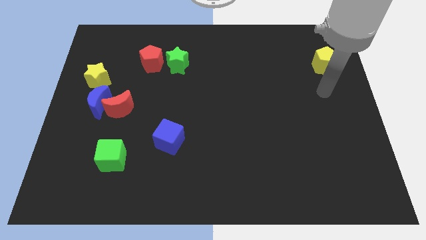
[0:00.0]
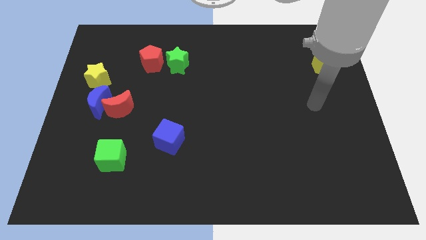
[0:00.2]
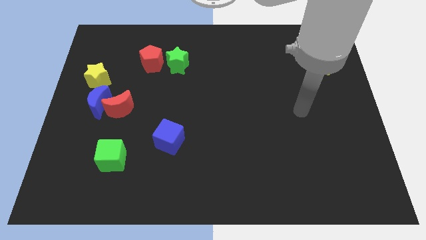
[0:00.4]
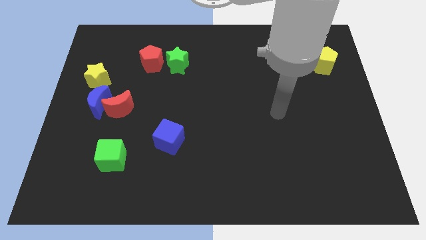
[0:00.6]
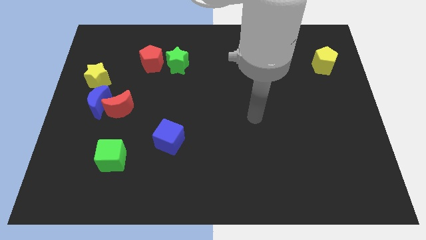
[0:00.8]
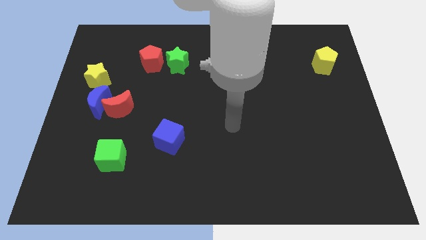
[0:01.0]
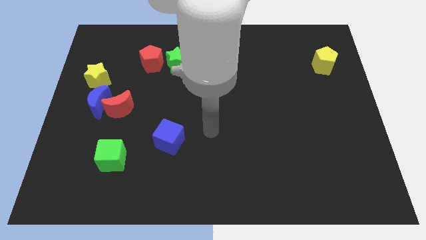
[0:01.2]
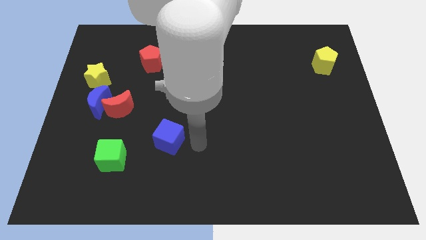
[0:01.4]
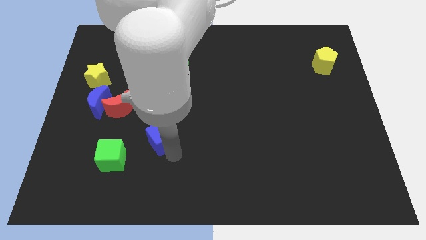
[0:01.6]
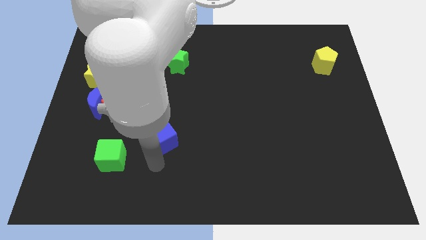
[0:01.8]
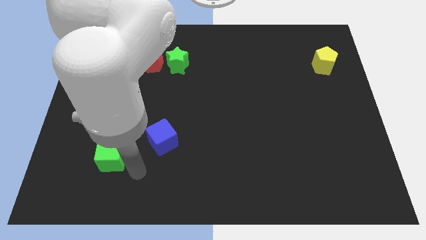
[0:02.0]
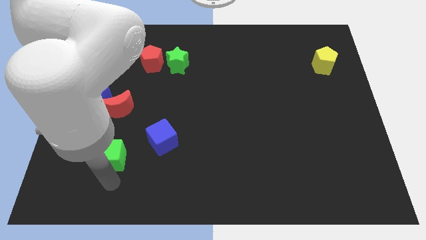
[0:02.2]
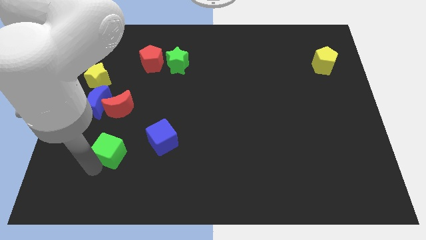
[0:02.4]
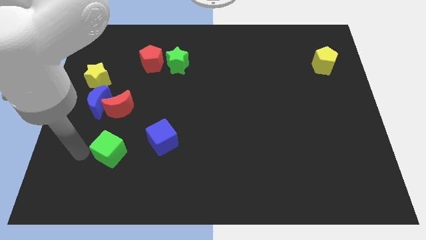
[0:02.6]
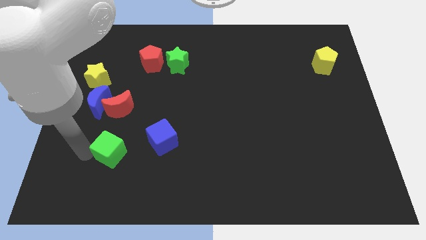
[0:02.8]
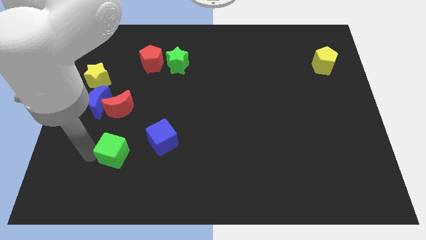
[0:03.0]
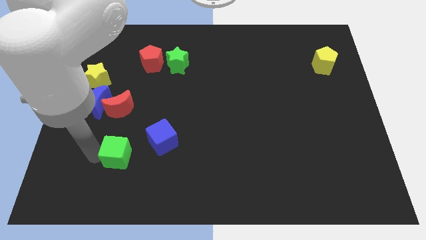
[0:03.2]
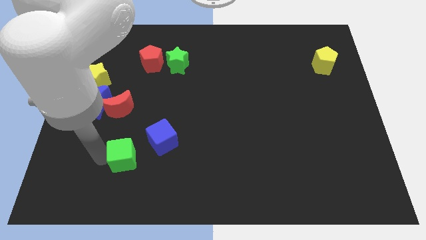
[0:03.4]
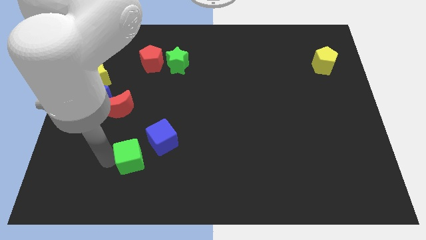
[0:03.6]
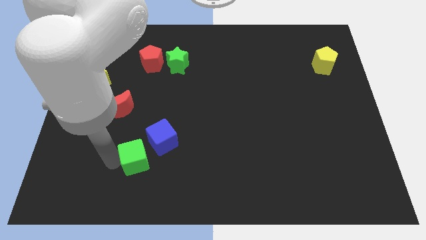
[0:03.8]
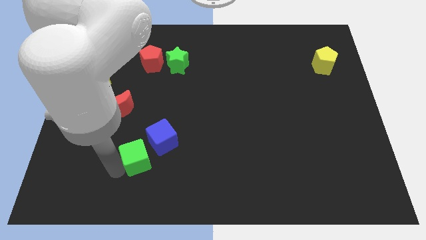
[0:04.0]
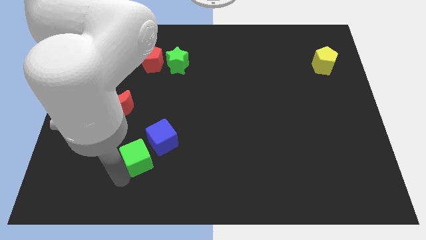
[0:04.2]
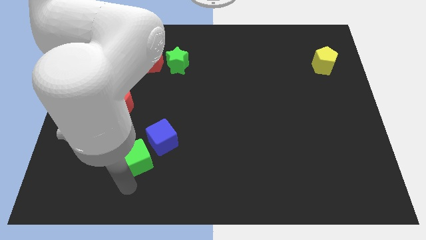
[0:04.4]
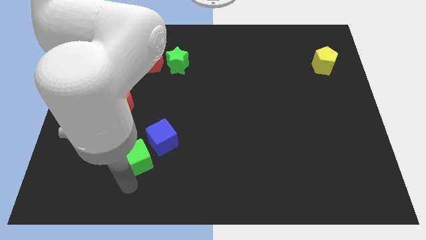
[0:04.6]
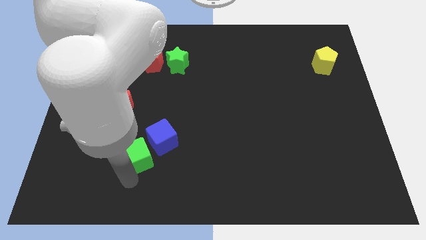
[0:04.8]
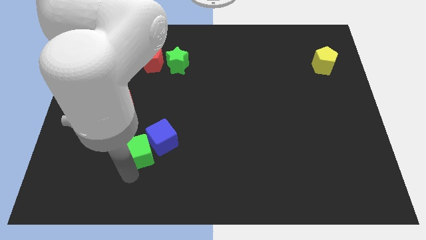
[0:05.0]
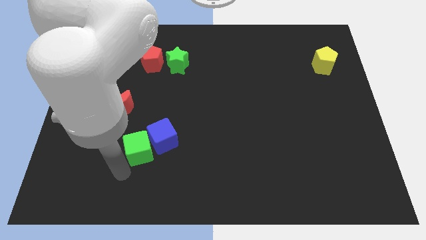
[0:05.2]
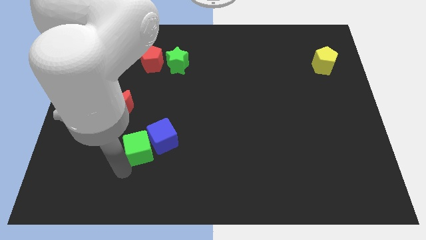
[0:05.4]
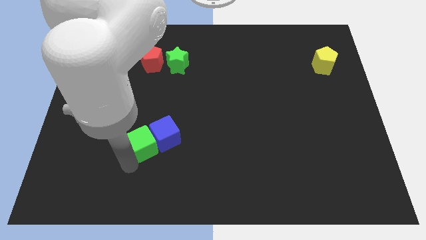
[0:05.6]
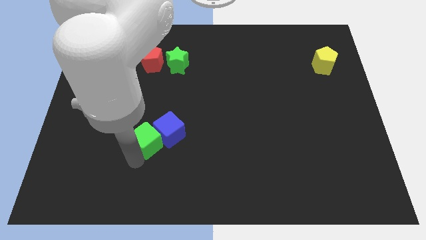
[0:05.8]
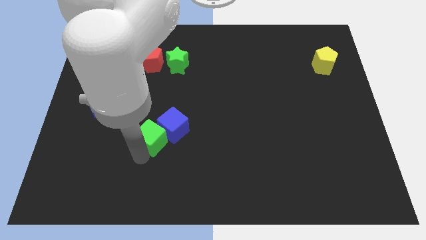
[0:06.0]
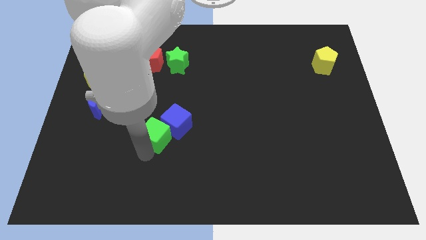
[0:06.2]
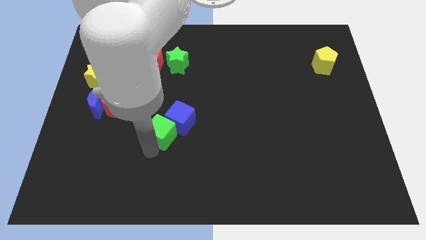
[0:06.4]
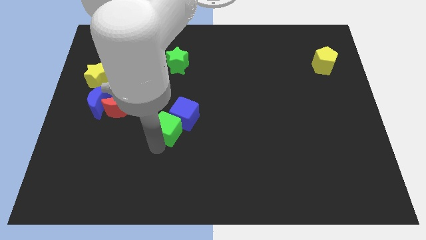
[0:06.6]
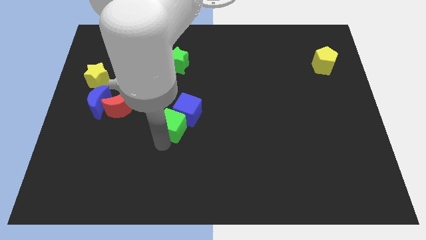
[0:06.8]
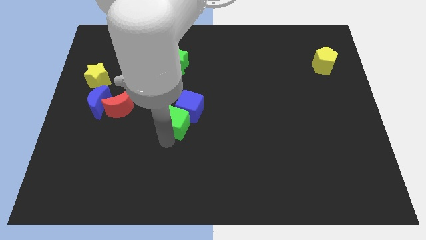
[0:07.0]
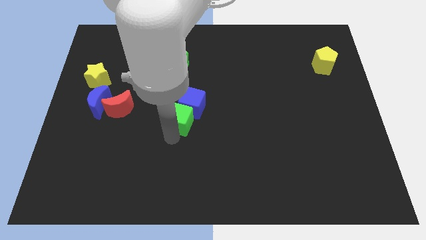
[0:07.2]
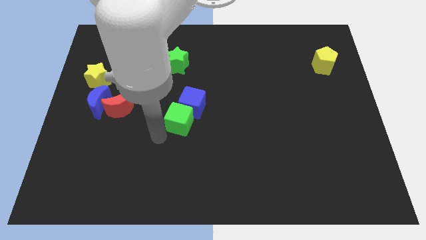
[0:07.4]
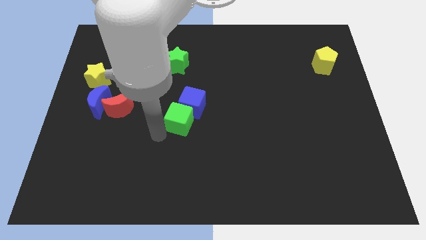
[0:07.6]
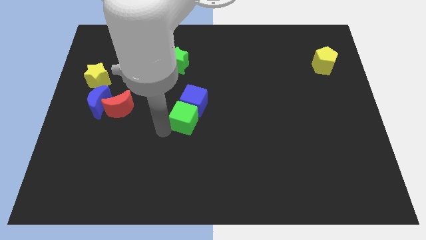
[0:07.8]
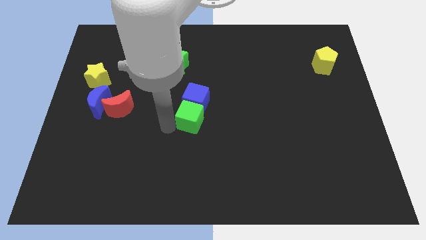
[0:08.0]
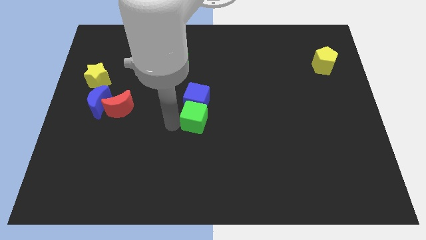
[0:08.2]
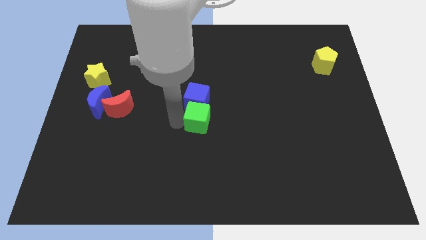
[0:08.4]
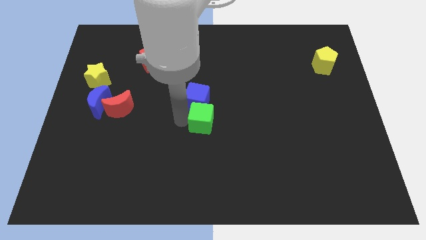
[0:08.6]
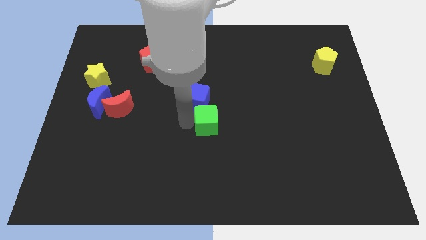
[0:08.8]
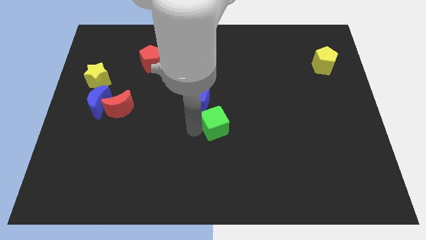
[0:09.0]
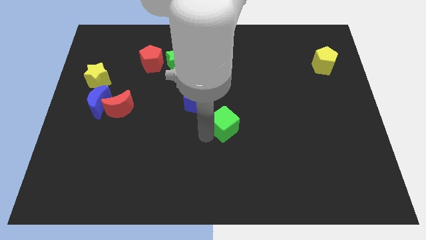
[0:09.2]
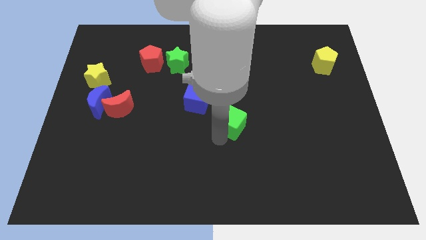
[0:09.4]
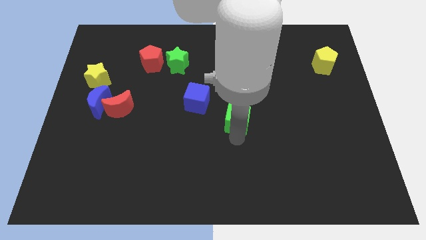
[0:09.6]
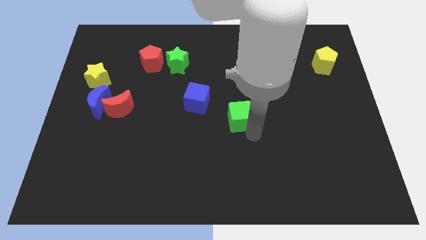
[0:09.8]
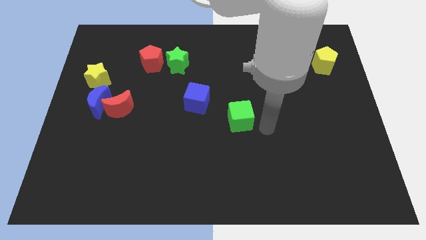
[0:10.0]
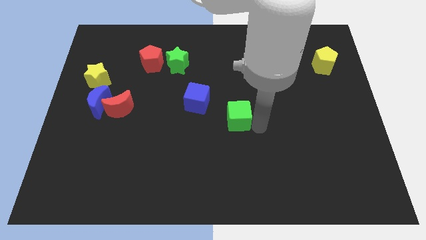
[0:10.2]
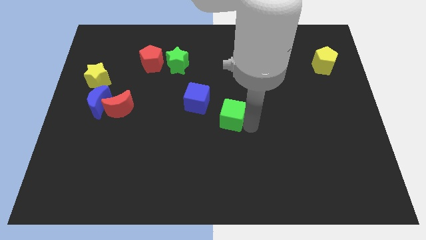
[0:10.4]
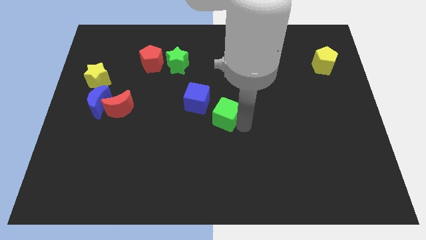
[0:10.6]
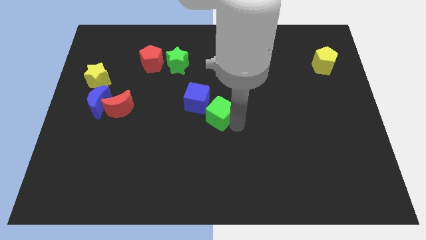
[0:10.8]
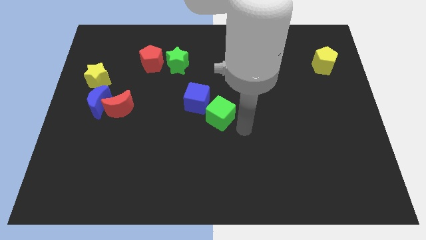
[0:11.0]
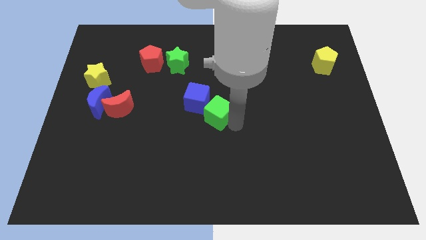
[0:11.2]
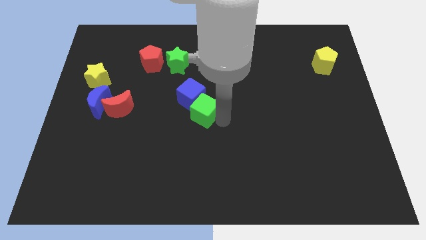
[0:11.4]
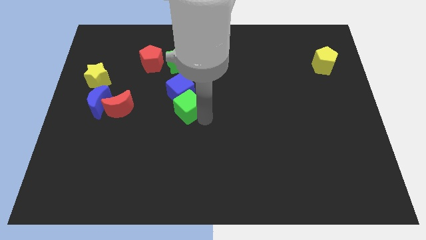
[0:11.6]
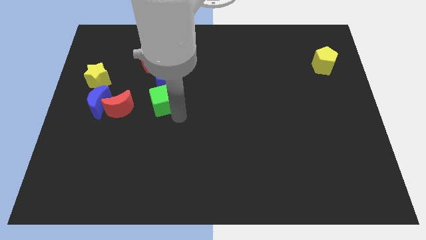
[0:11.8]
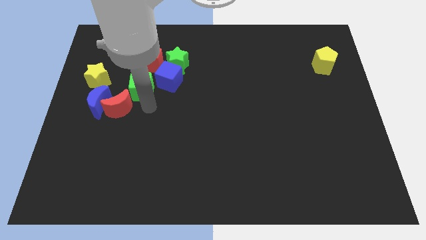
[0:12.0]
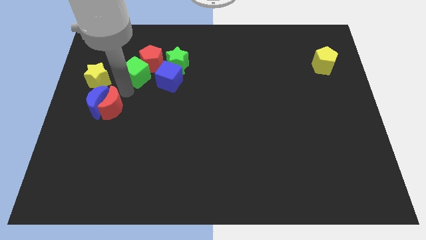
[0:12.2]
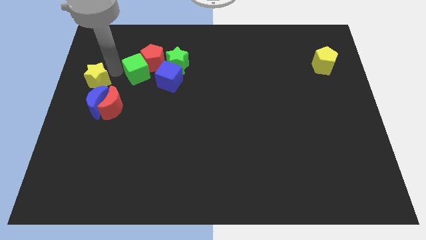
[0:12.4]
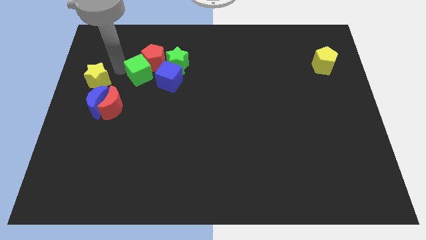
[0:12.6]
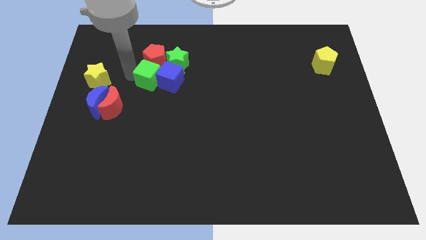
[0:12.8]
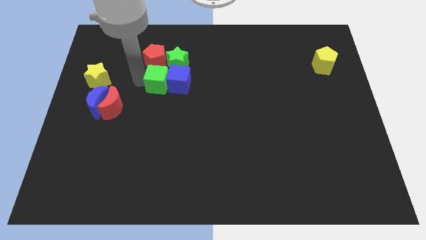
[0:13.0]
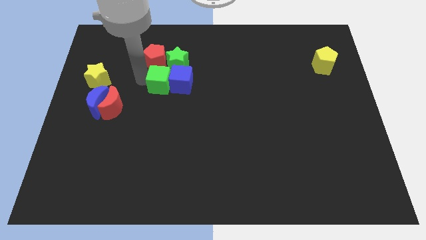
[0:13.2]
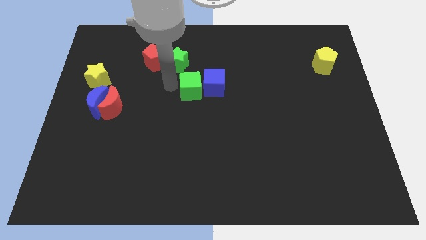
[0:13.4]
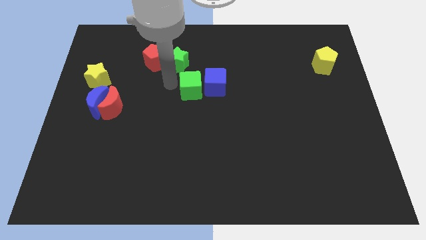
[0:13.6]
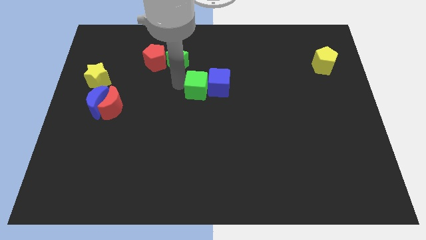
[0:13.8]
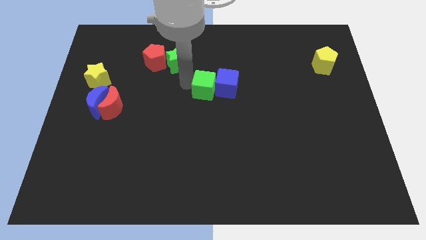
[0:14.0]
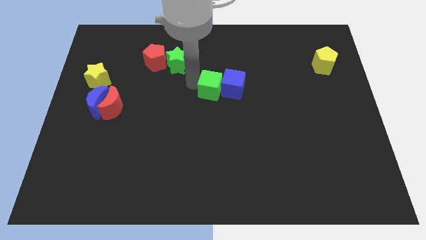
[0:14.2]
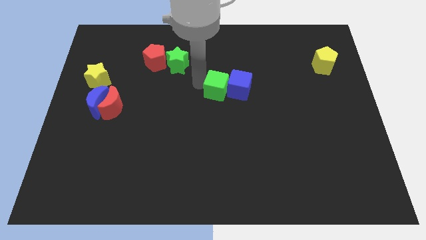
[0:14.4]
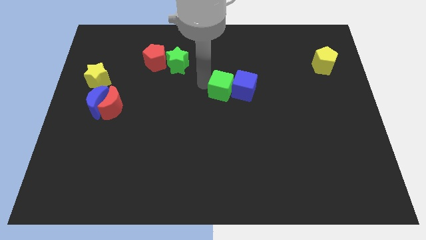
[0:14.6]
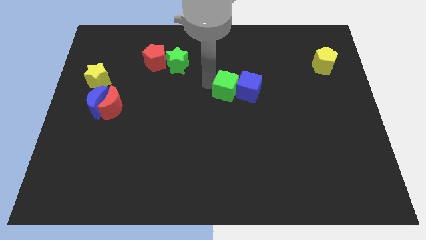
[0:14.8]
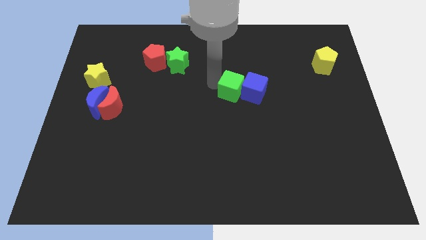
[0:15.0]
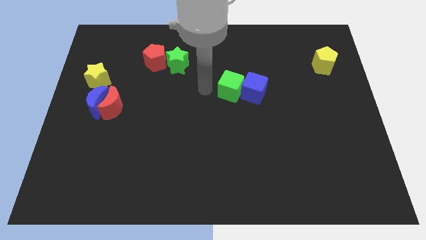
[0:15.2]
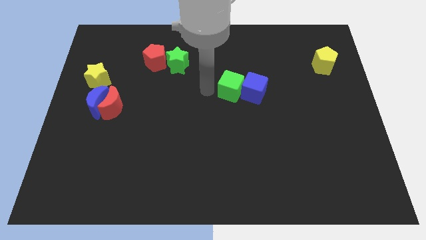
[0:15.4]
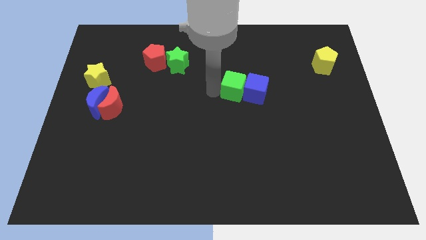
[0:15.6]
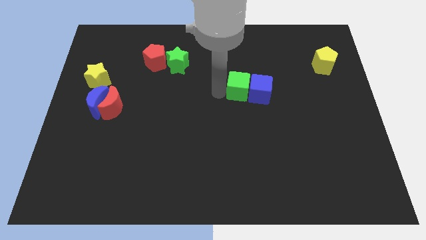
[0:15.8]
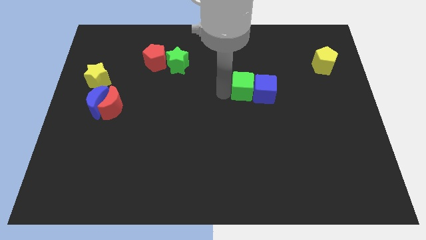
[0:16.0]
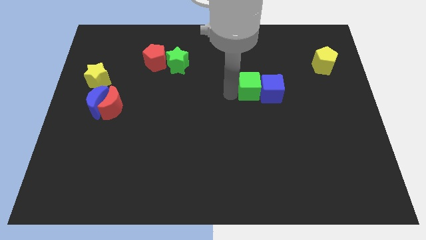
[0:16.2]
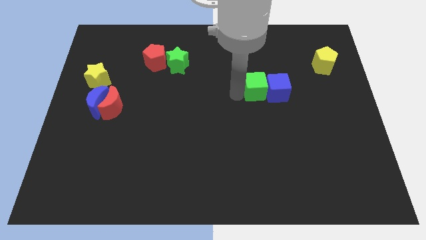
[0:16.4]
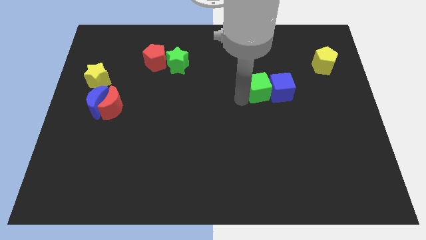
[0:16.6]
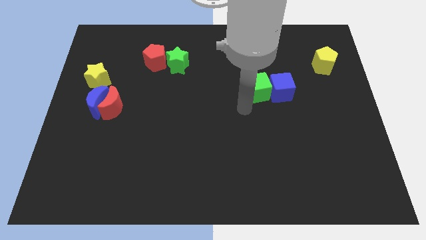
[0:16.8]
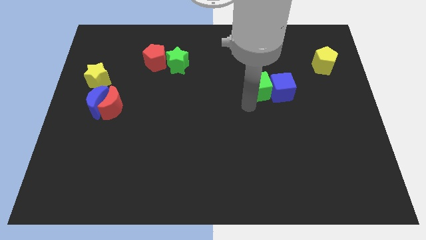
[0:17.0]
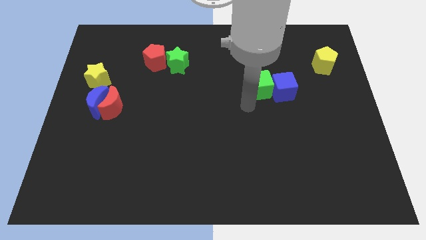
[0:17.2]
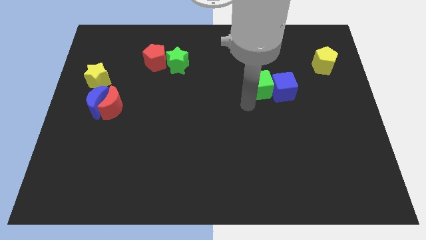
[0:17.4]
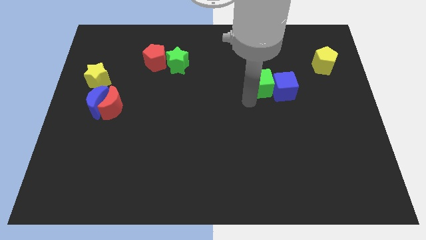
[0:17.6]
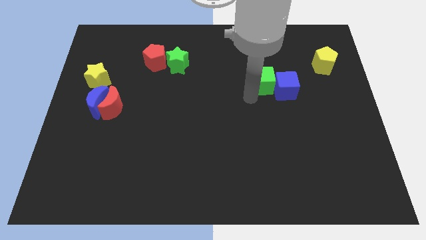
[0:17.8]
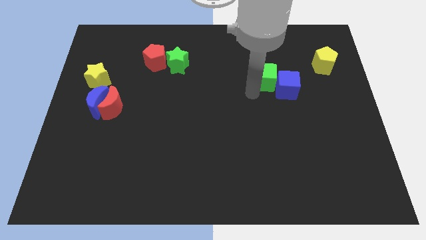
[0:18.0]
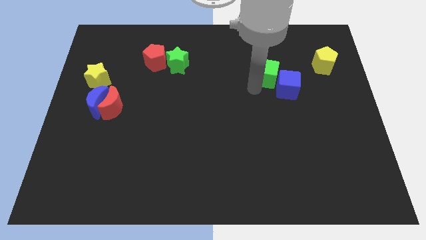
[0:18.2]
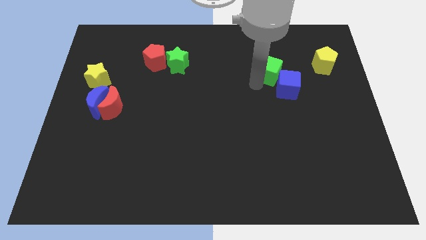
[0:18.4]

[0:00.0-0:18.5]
push the green cube just left of the yellow pentagon
